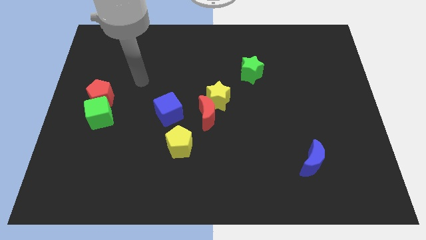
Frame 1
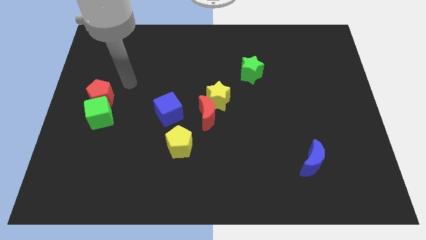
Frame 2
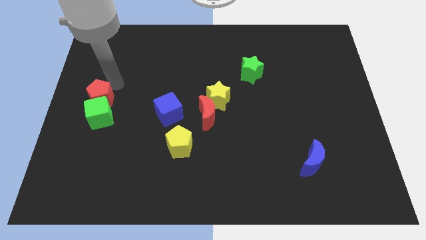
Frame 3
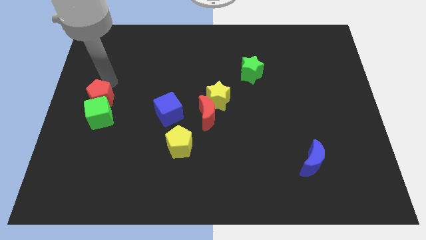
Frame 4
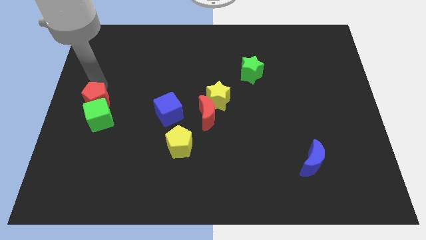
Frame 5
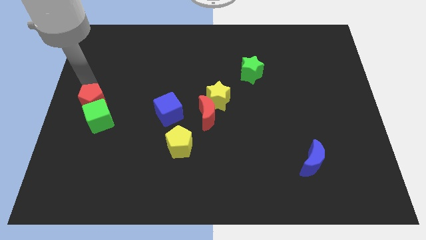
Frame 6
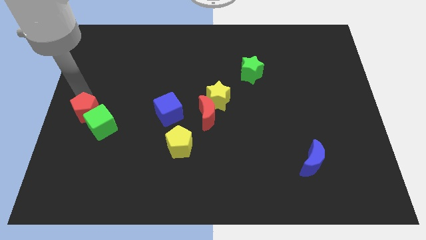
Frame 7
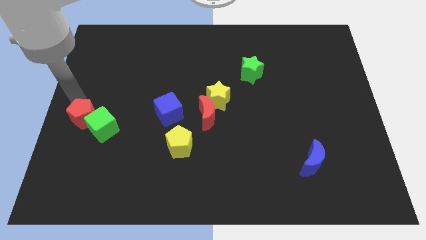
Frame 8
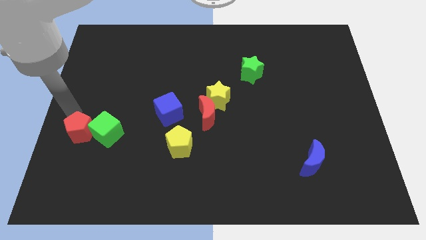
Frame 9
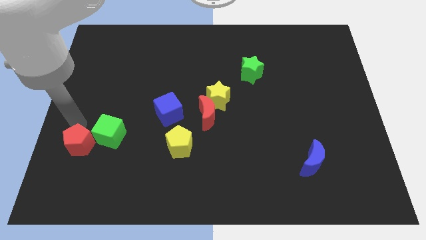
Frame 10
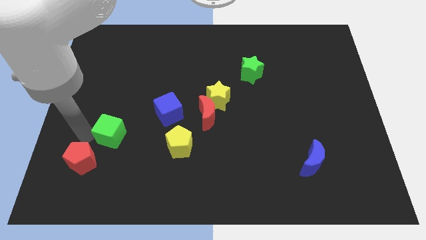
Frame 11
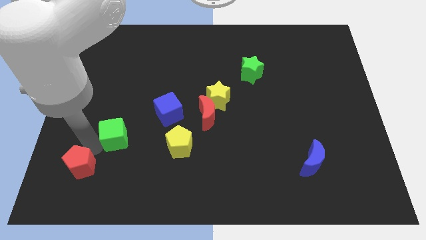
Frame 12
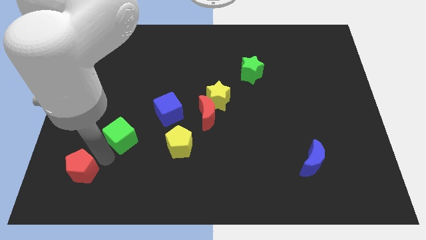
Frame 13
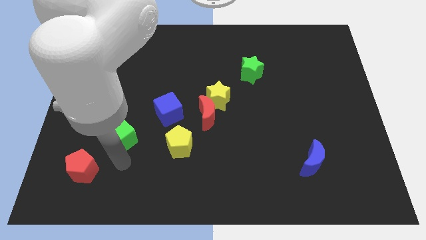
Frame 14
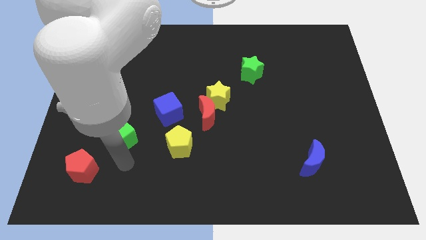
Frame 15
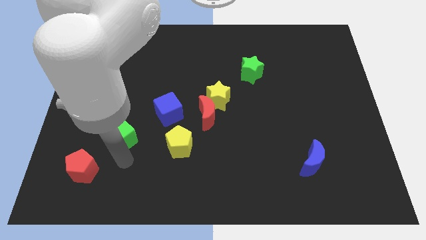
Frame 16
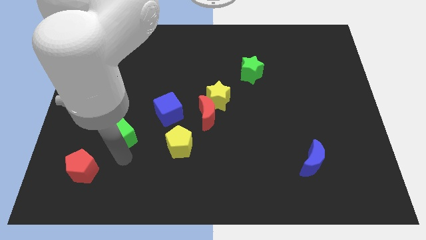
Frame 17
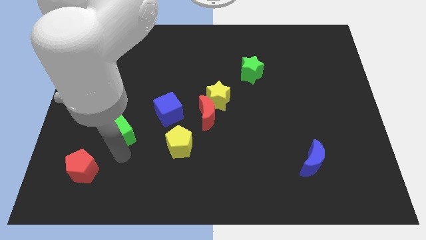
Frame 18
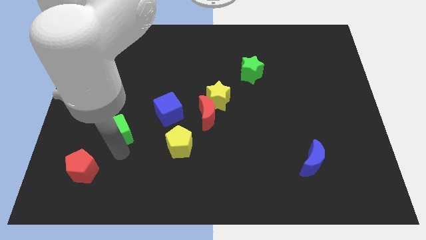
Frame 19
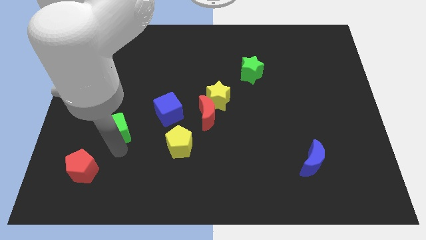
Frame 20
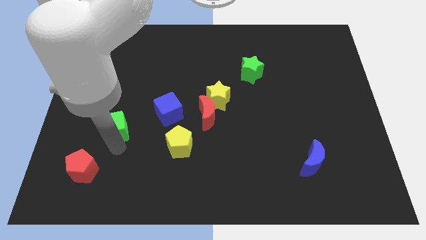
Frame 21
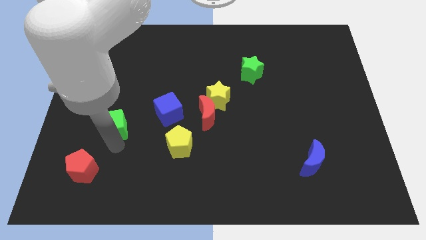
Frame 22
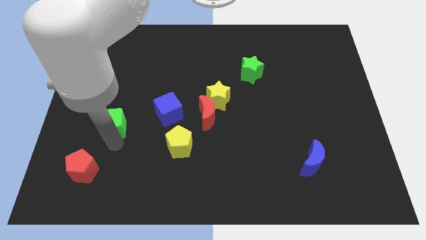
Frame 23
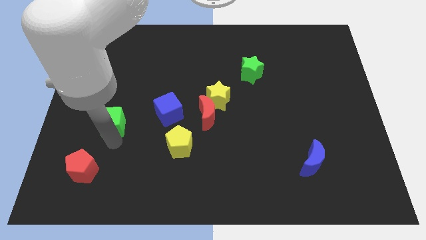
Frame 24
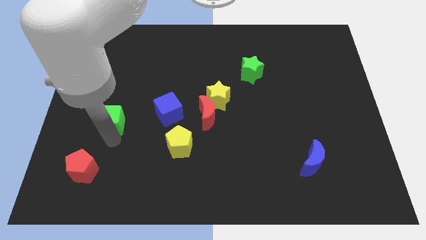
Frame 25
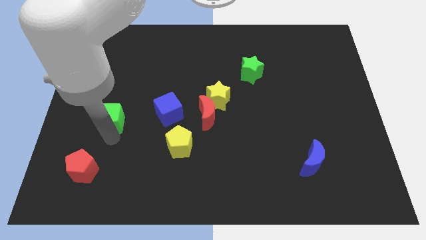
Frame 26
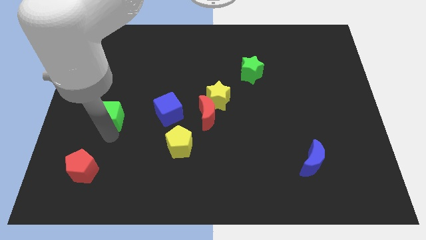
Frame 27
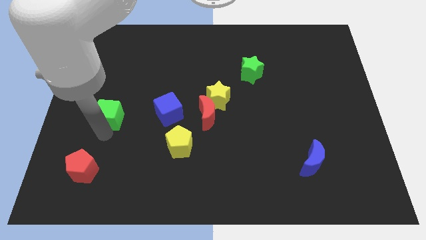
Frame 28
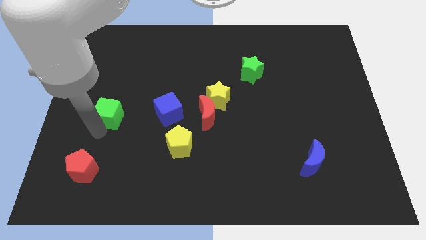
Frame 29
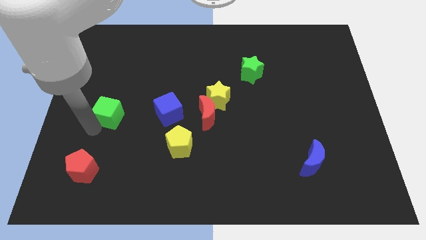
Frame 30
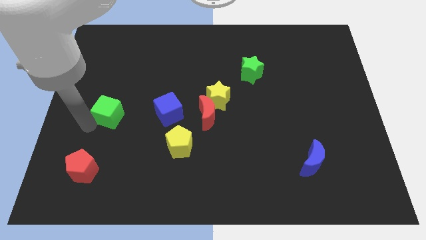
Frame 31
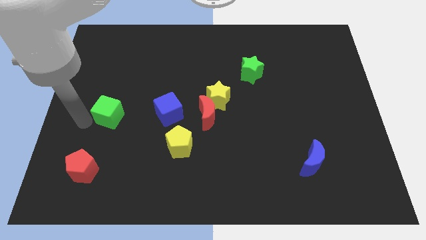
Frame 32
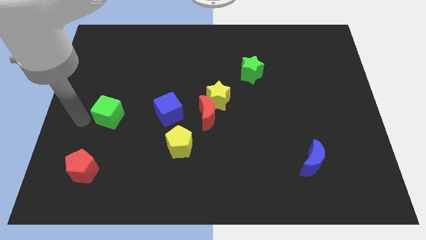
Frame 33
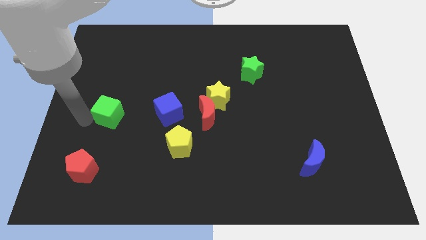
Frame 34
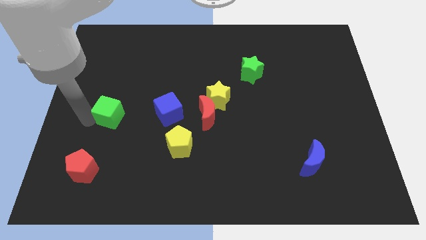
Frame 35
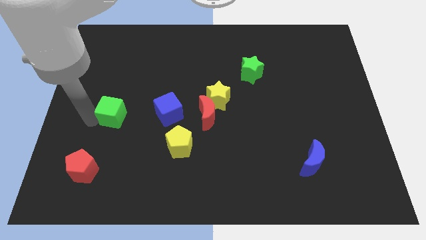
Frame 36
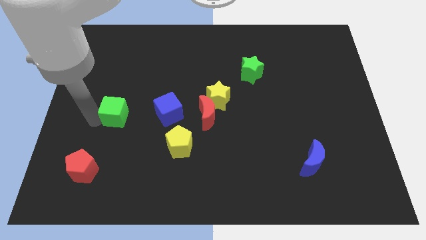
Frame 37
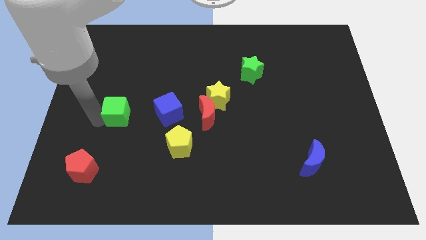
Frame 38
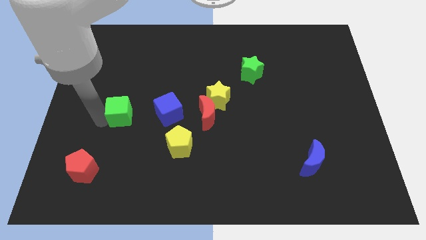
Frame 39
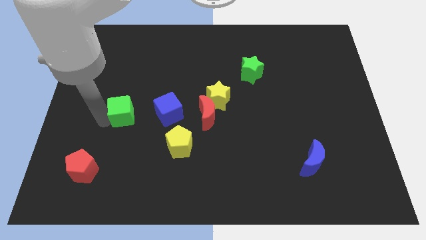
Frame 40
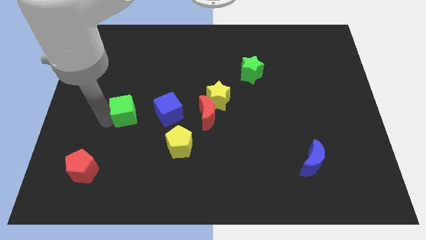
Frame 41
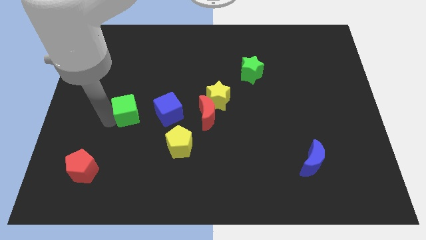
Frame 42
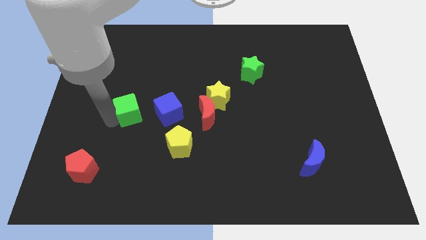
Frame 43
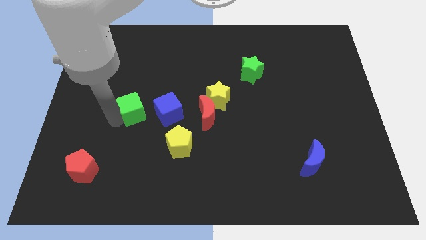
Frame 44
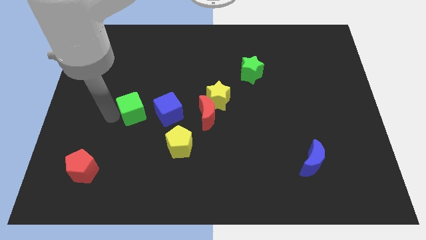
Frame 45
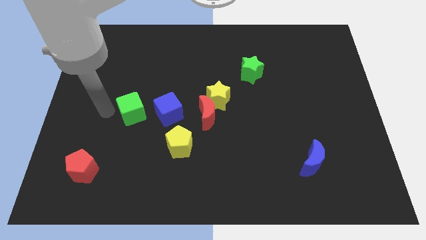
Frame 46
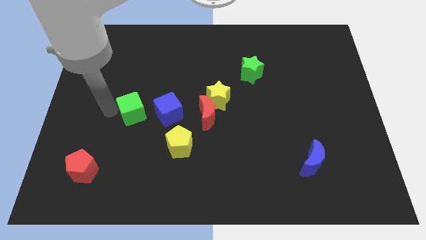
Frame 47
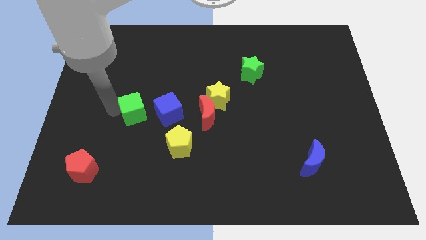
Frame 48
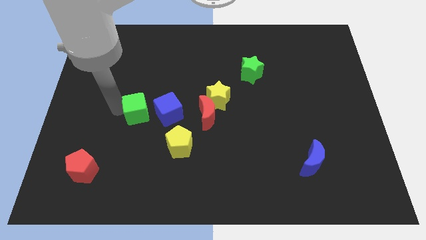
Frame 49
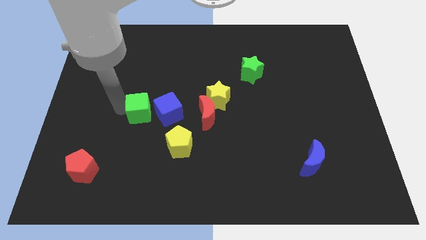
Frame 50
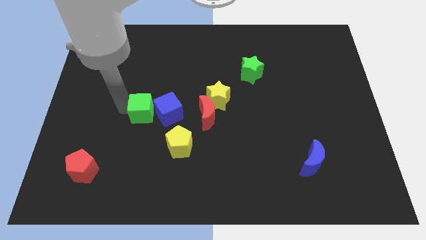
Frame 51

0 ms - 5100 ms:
slide the green cube close to the blue cube

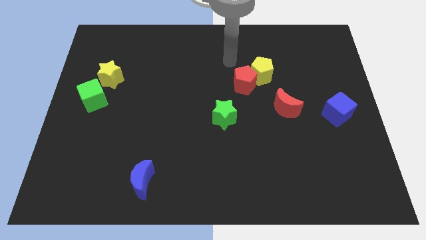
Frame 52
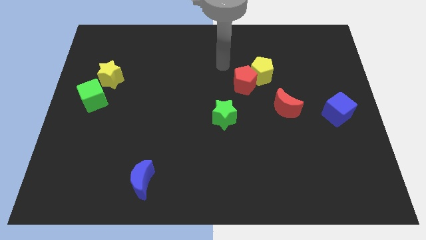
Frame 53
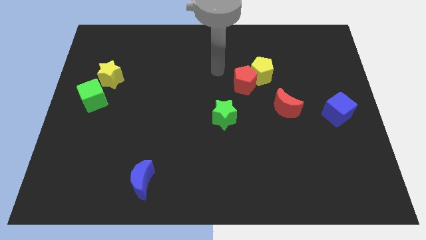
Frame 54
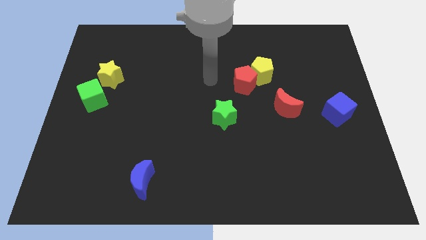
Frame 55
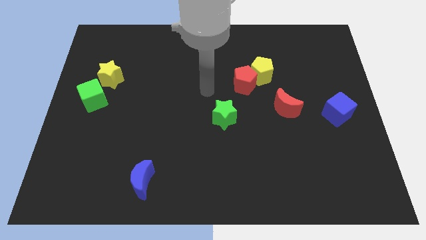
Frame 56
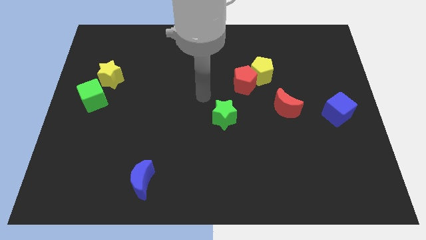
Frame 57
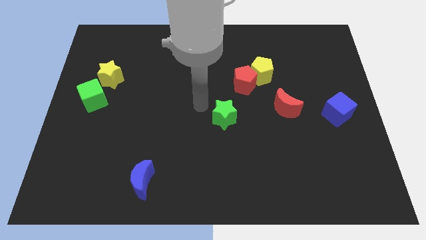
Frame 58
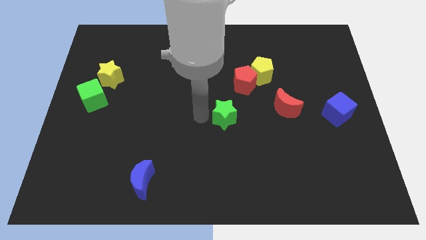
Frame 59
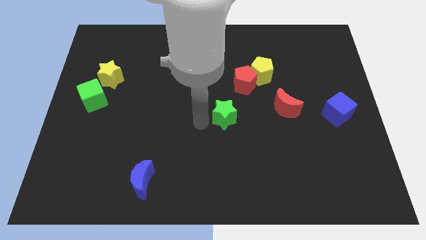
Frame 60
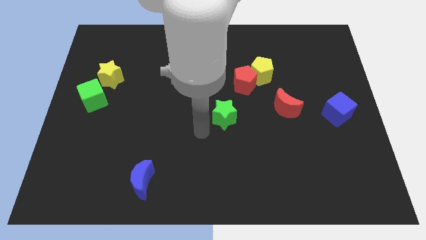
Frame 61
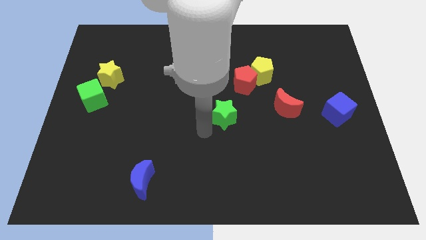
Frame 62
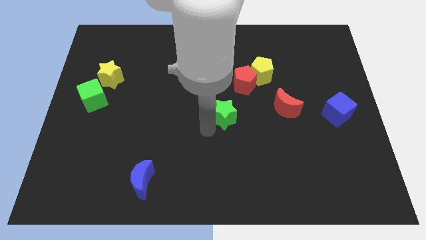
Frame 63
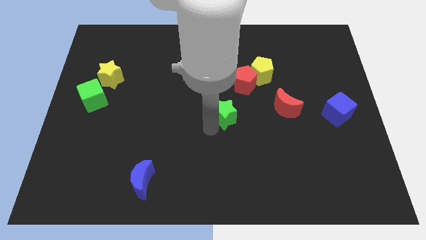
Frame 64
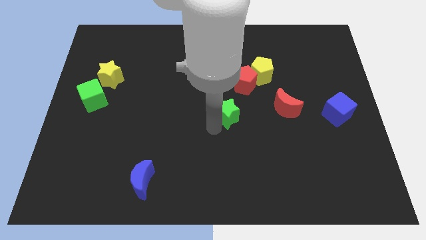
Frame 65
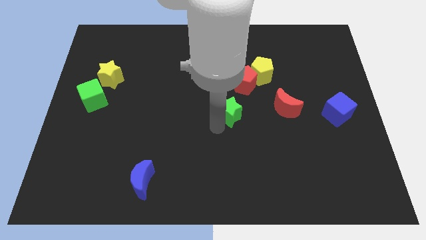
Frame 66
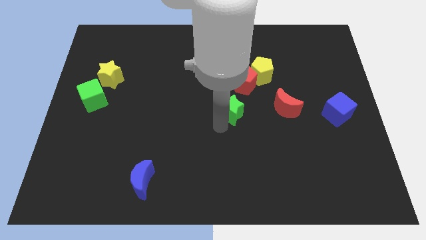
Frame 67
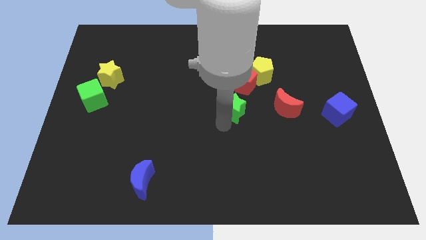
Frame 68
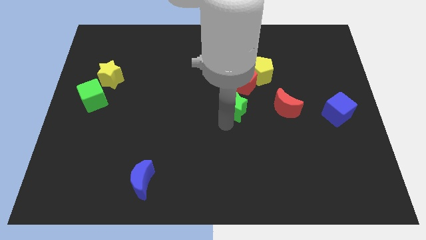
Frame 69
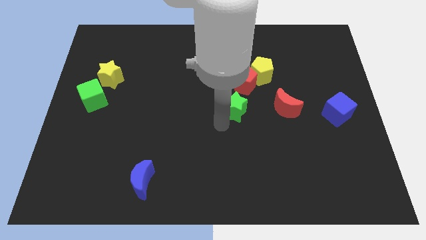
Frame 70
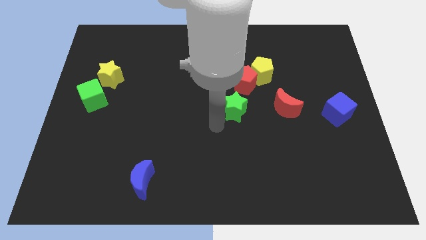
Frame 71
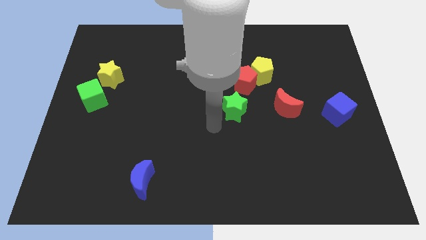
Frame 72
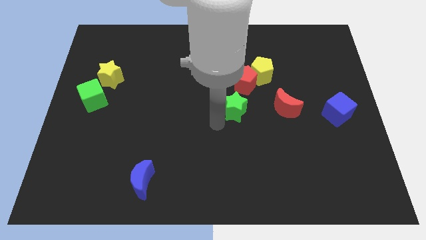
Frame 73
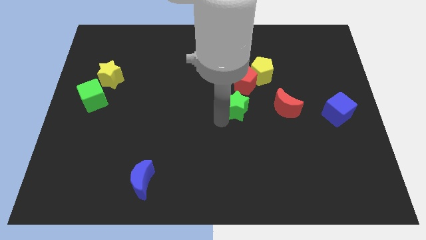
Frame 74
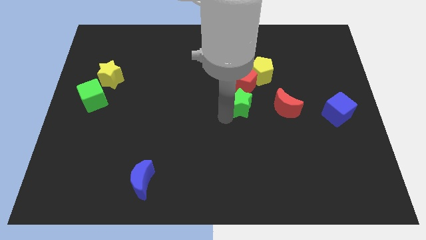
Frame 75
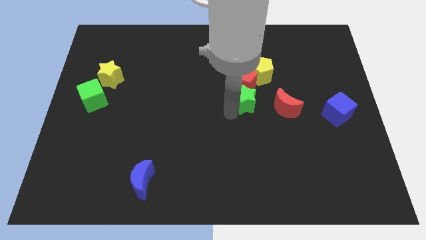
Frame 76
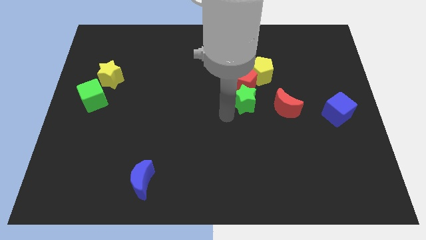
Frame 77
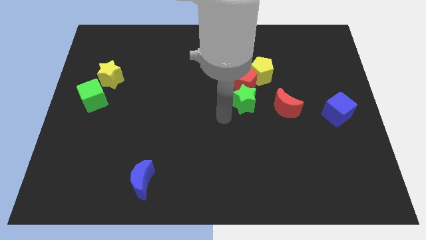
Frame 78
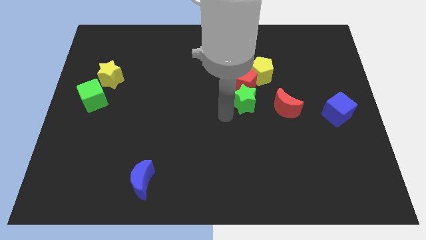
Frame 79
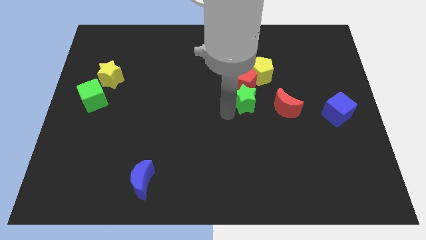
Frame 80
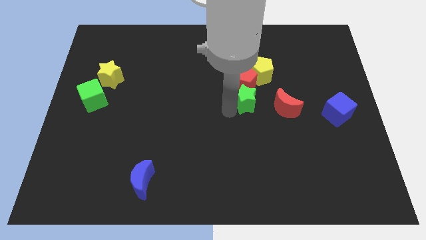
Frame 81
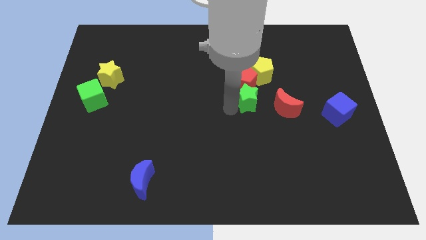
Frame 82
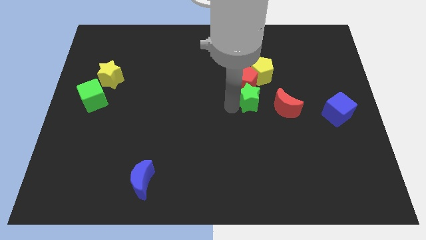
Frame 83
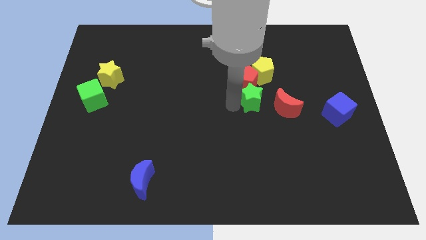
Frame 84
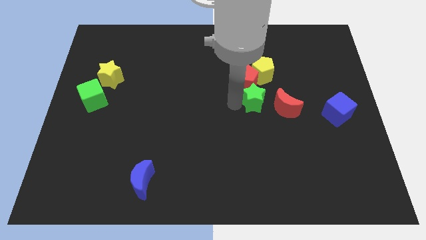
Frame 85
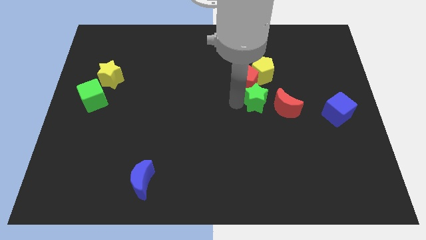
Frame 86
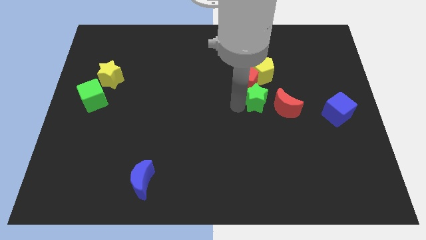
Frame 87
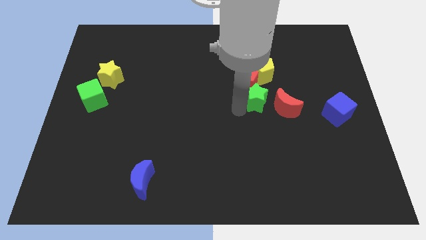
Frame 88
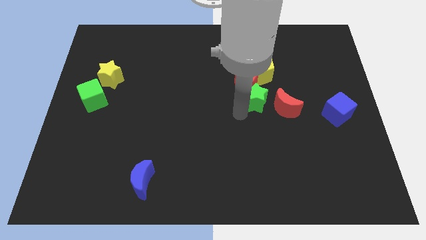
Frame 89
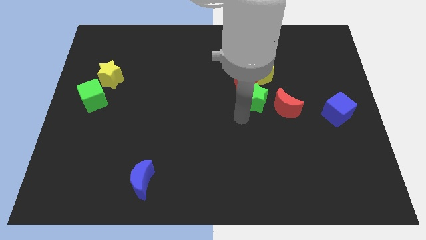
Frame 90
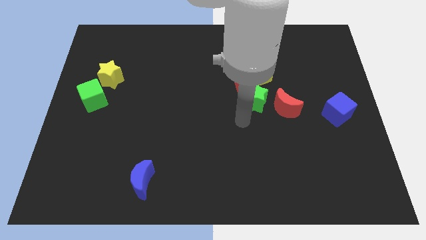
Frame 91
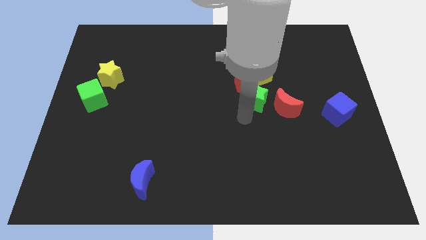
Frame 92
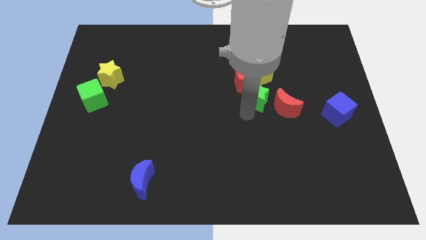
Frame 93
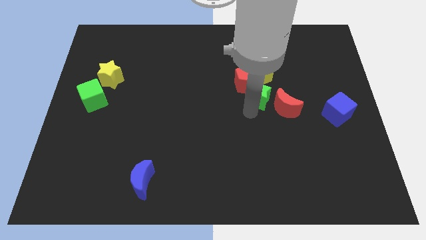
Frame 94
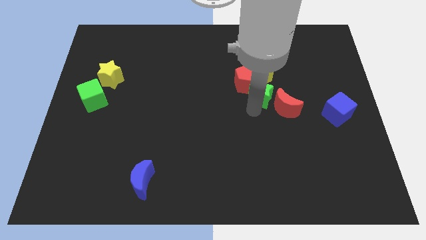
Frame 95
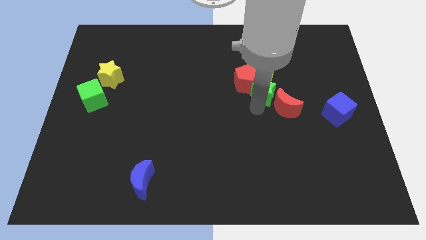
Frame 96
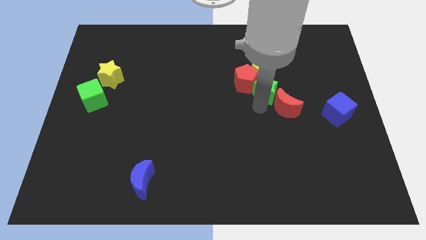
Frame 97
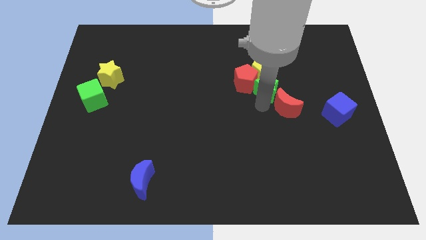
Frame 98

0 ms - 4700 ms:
slide the green star close to the yellow pentagon
